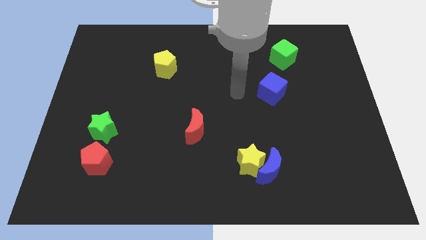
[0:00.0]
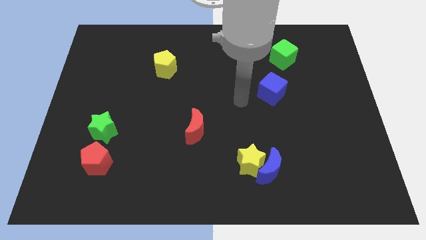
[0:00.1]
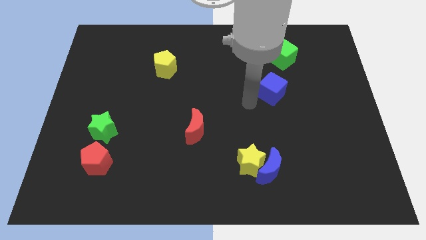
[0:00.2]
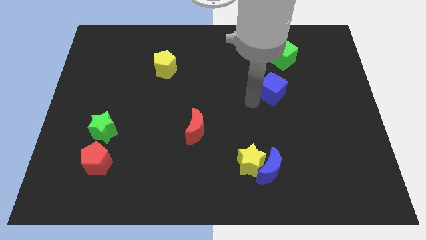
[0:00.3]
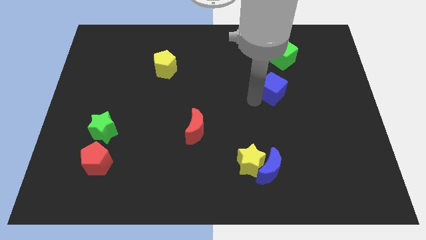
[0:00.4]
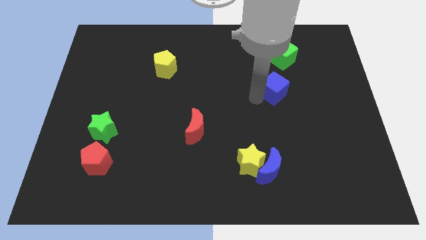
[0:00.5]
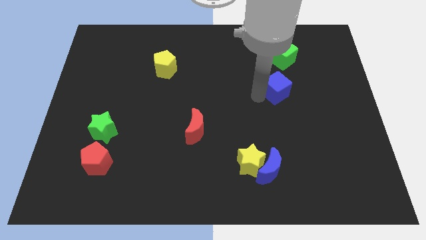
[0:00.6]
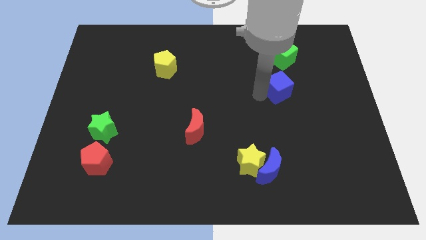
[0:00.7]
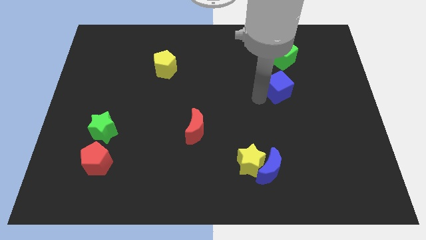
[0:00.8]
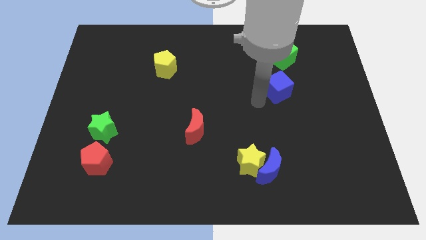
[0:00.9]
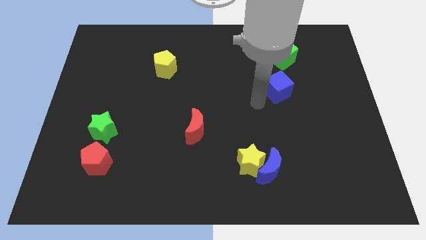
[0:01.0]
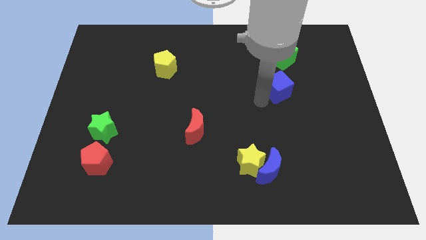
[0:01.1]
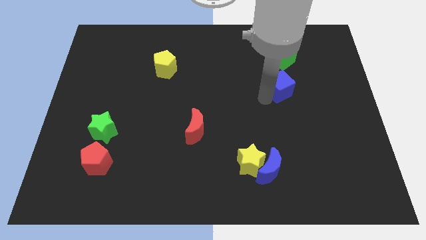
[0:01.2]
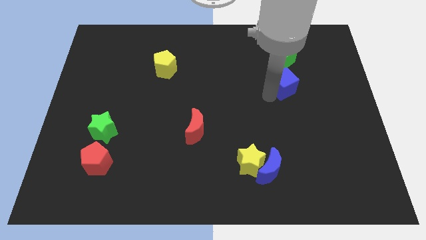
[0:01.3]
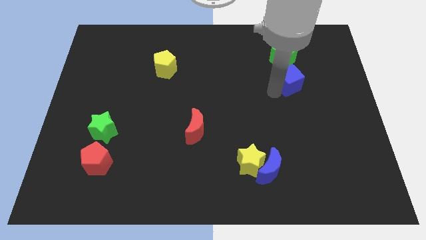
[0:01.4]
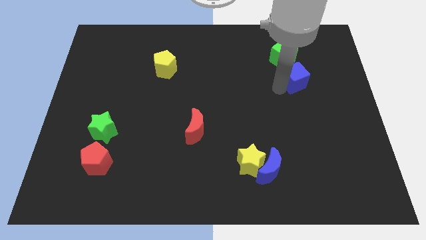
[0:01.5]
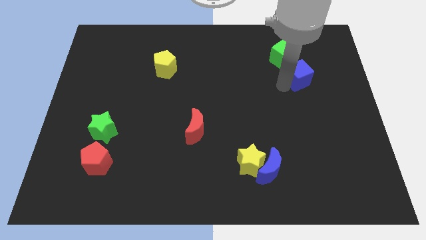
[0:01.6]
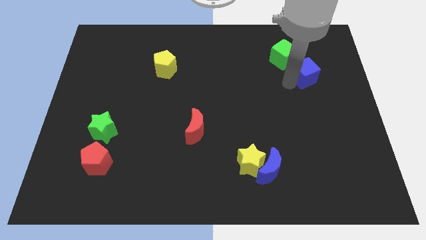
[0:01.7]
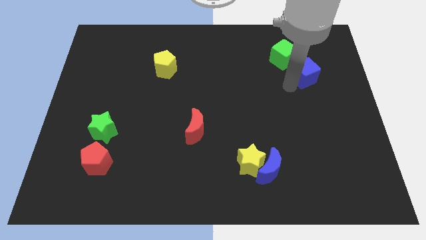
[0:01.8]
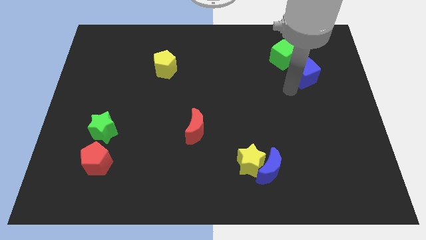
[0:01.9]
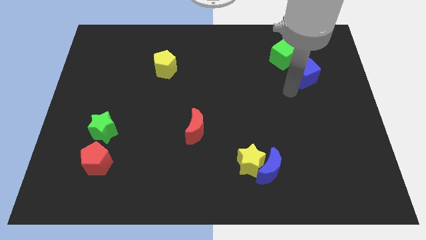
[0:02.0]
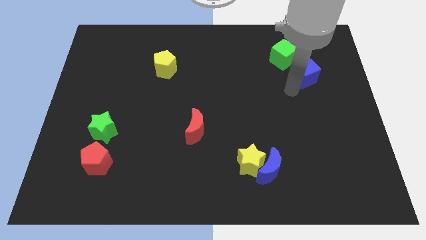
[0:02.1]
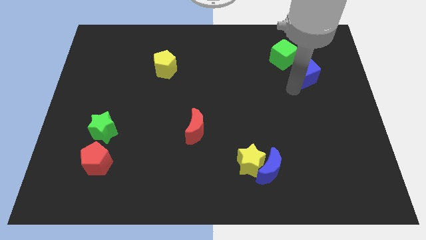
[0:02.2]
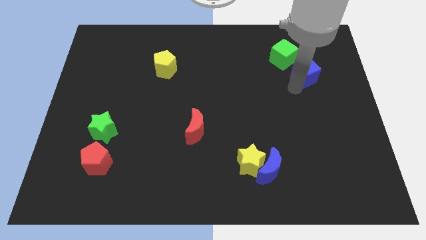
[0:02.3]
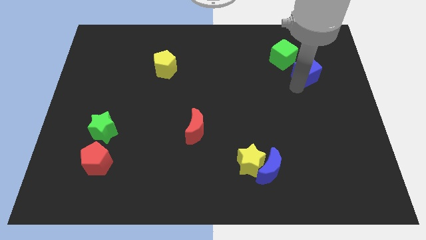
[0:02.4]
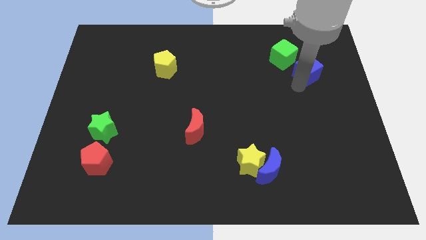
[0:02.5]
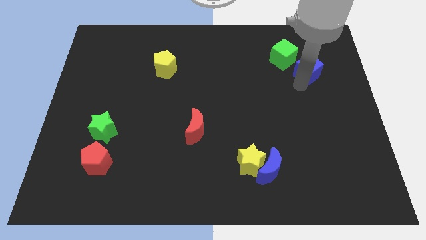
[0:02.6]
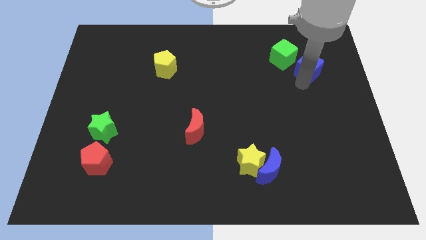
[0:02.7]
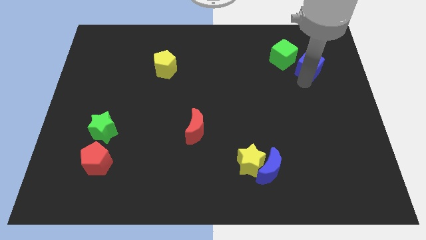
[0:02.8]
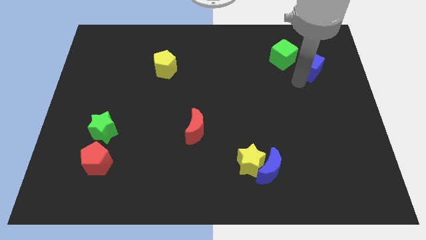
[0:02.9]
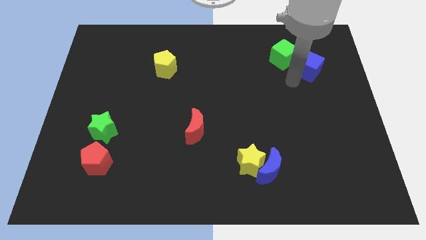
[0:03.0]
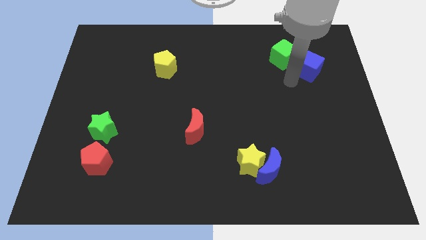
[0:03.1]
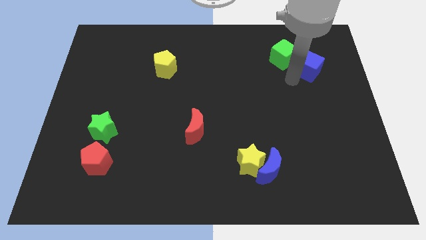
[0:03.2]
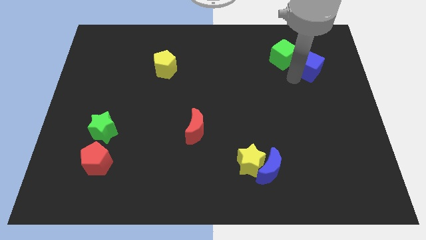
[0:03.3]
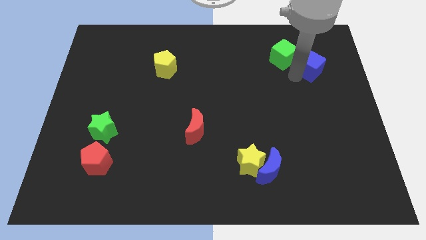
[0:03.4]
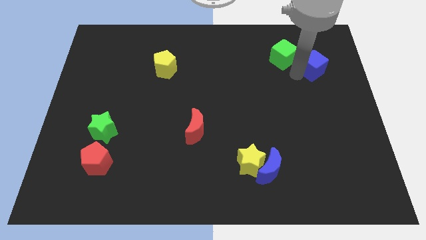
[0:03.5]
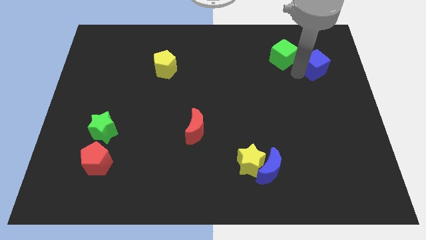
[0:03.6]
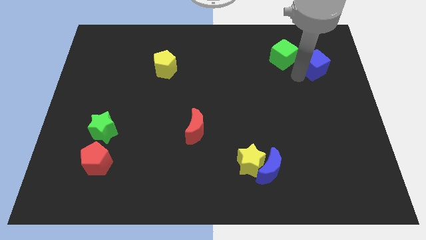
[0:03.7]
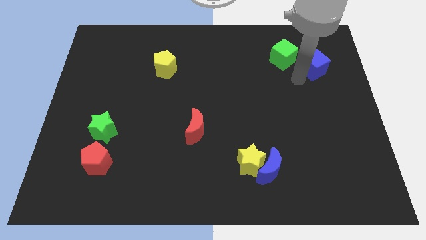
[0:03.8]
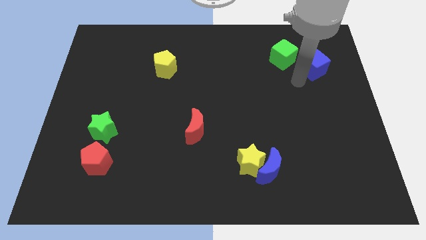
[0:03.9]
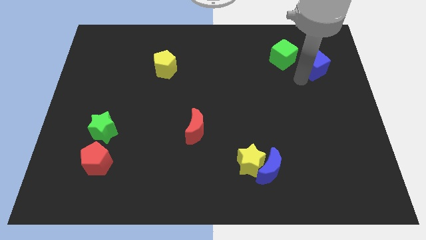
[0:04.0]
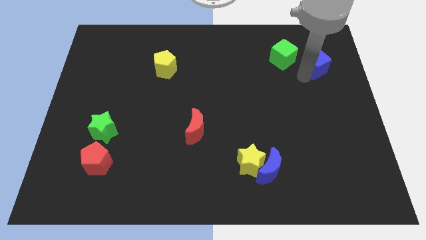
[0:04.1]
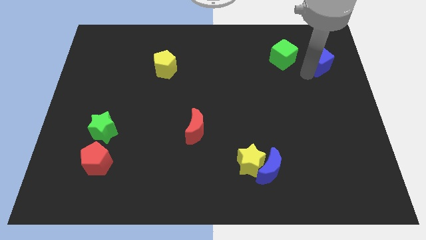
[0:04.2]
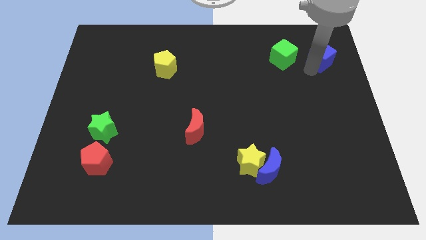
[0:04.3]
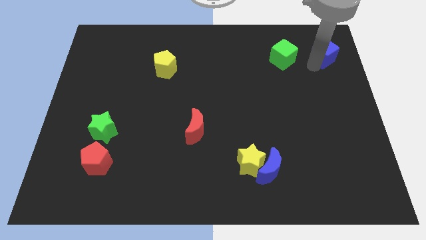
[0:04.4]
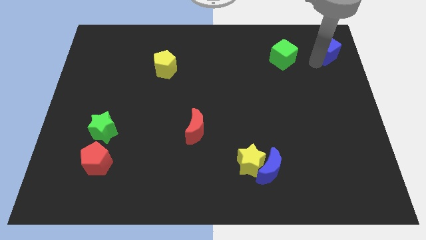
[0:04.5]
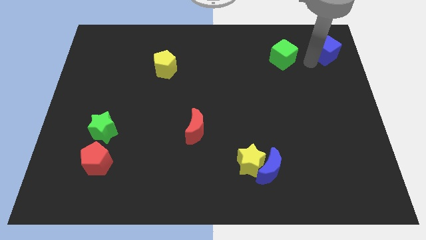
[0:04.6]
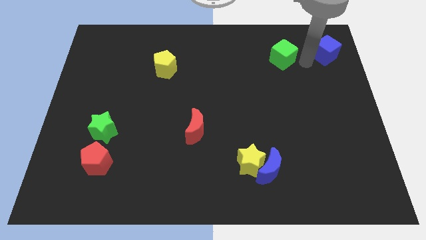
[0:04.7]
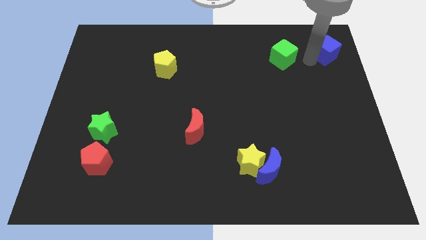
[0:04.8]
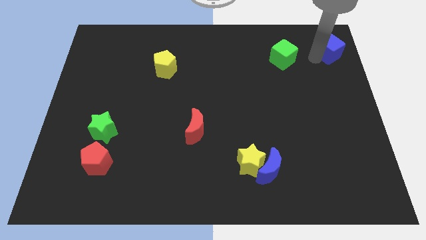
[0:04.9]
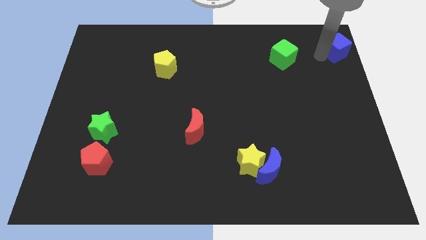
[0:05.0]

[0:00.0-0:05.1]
slide the blue cube to the upper right corner

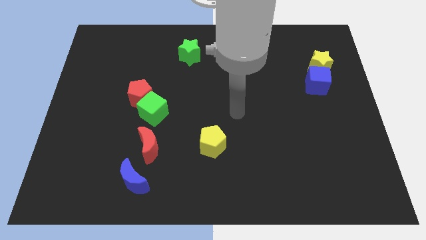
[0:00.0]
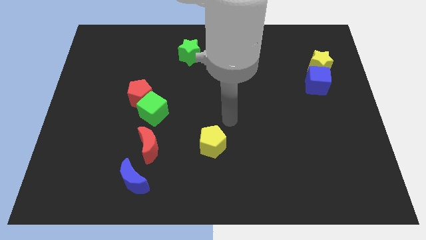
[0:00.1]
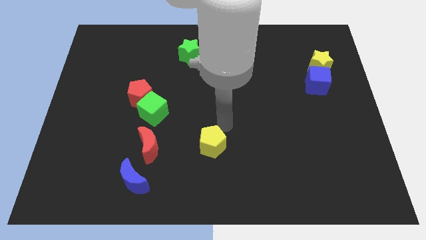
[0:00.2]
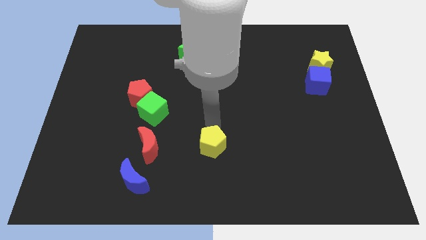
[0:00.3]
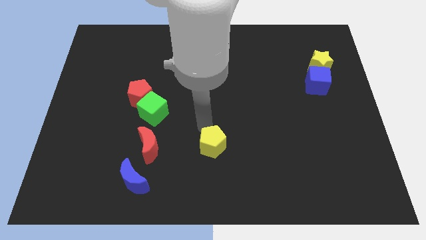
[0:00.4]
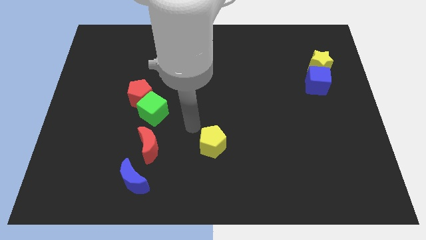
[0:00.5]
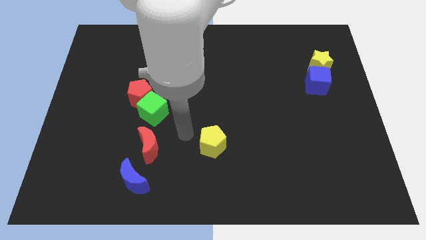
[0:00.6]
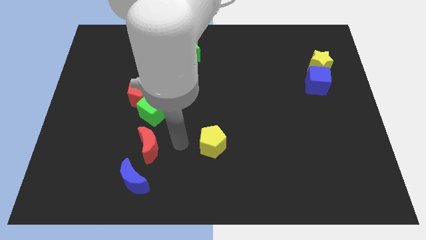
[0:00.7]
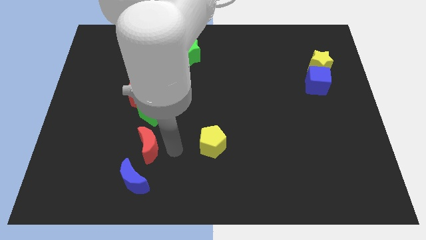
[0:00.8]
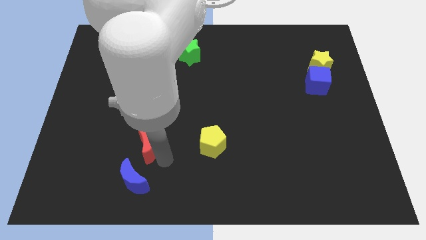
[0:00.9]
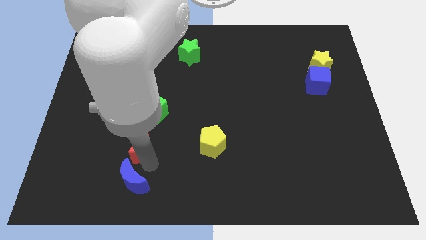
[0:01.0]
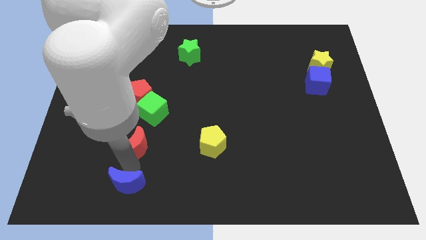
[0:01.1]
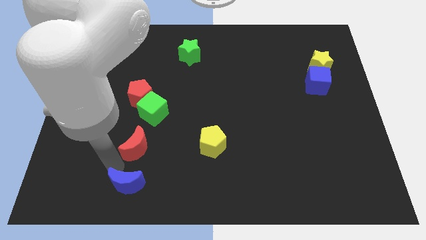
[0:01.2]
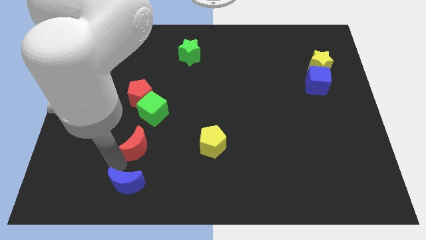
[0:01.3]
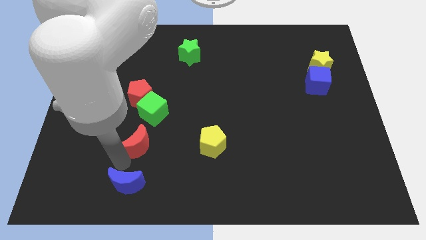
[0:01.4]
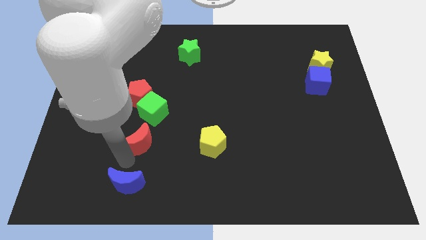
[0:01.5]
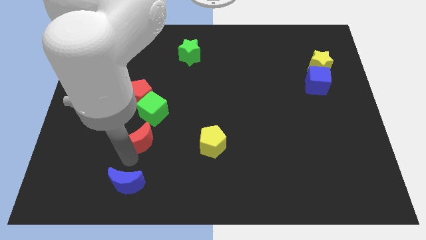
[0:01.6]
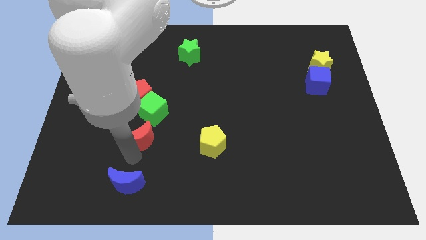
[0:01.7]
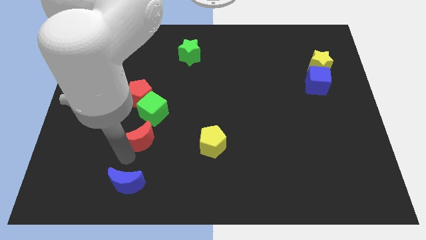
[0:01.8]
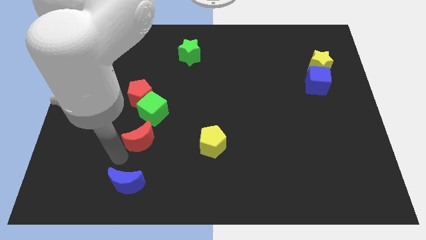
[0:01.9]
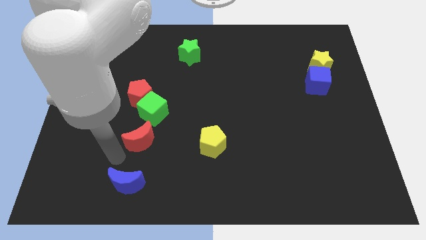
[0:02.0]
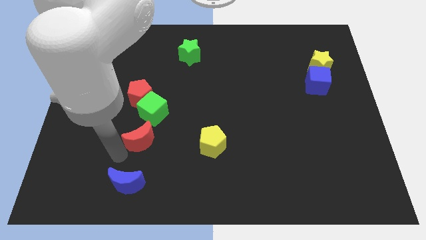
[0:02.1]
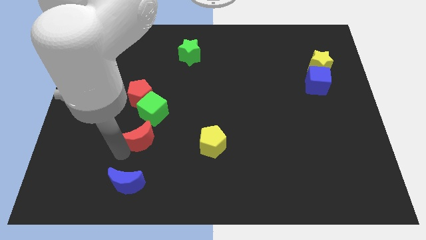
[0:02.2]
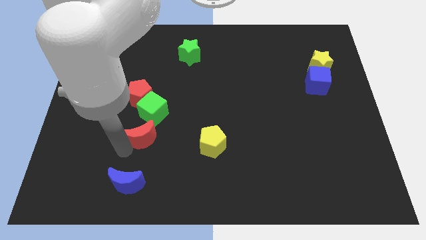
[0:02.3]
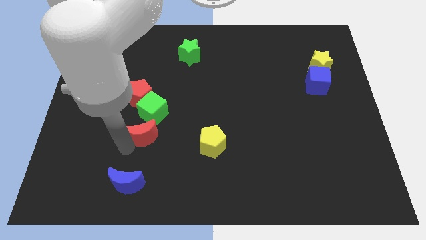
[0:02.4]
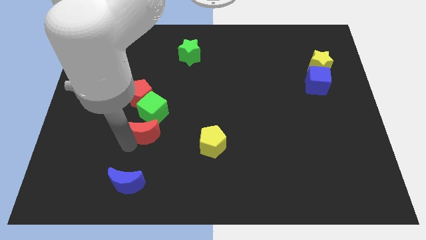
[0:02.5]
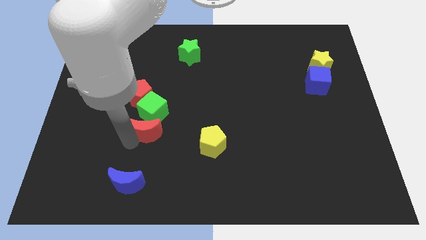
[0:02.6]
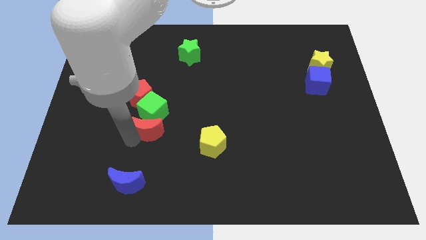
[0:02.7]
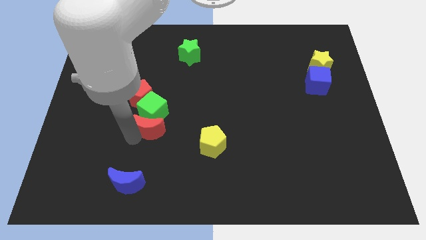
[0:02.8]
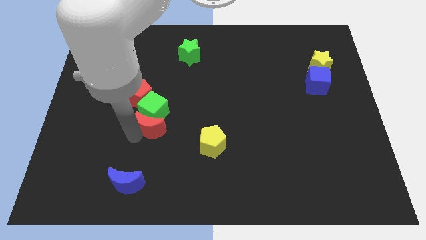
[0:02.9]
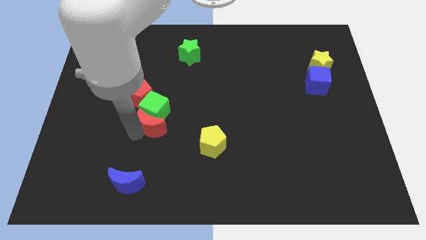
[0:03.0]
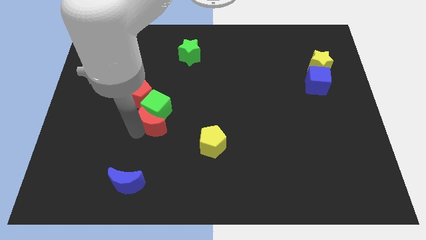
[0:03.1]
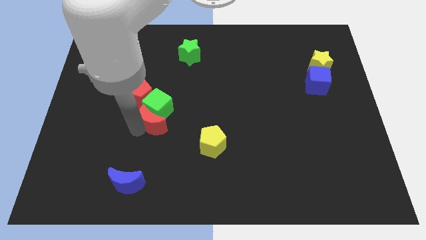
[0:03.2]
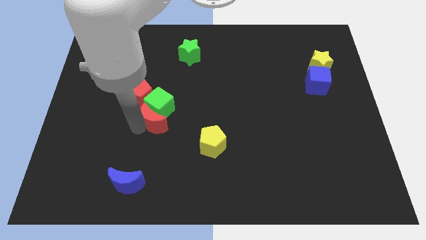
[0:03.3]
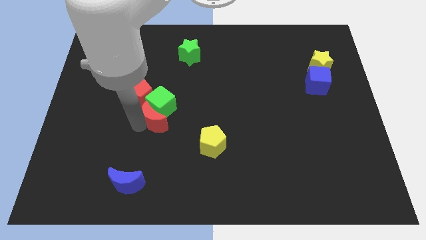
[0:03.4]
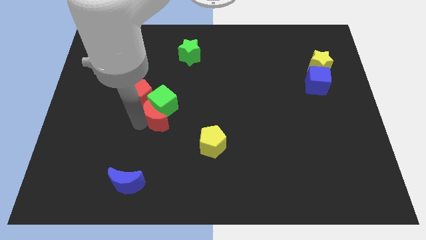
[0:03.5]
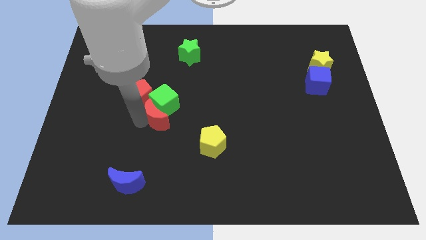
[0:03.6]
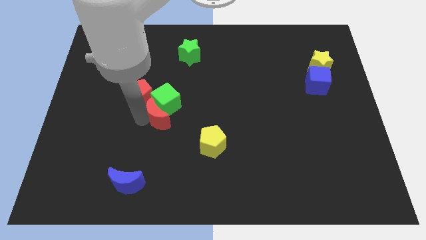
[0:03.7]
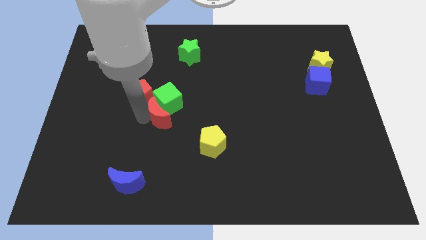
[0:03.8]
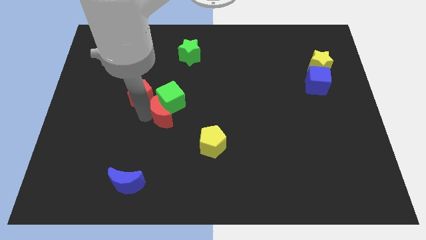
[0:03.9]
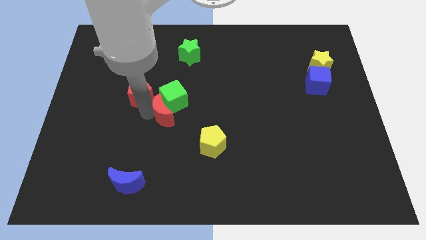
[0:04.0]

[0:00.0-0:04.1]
slide the red moon to the center
